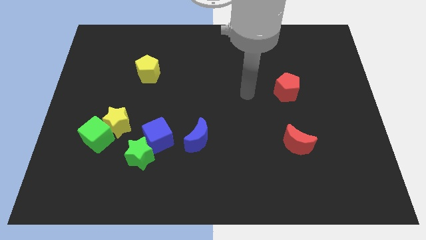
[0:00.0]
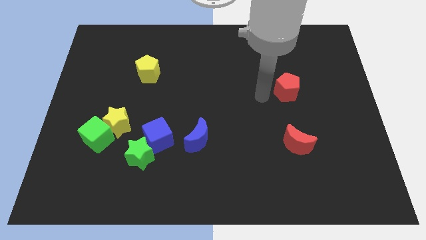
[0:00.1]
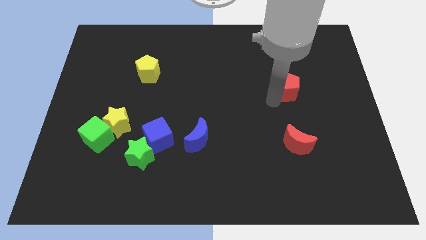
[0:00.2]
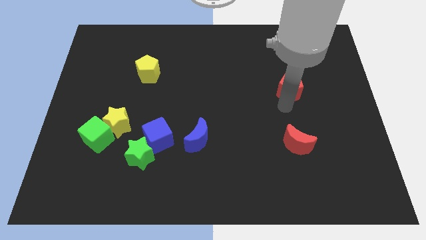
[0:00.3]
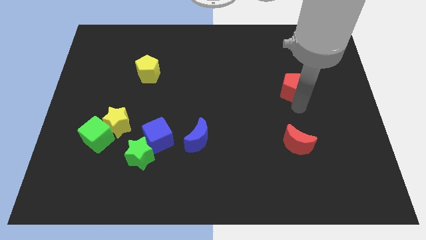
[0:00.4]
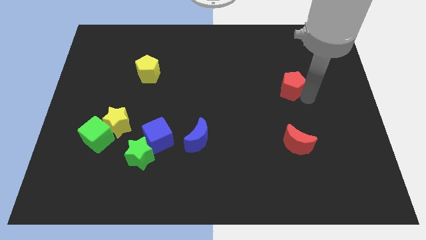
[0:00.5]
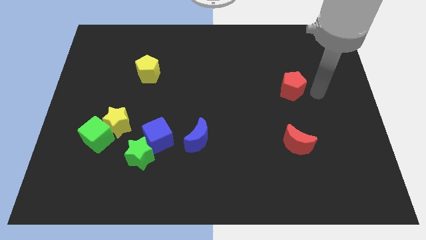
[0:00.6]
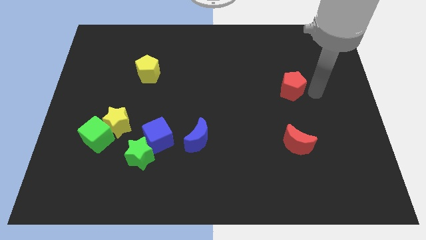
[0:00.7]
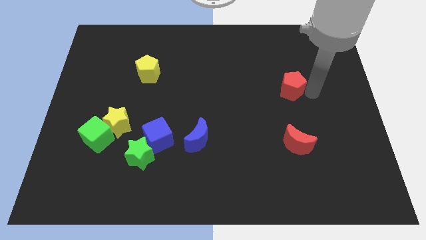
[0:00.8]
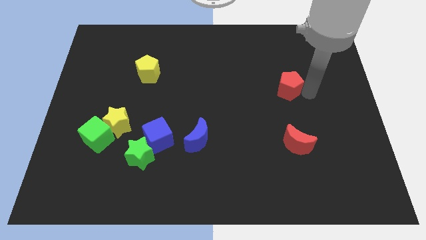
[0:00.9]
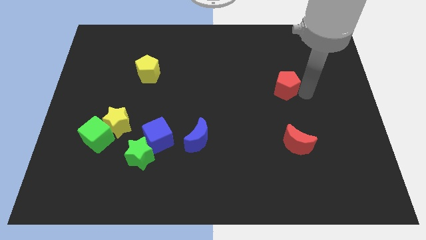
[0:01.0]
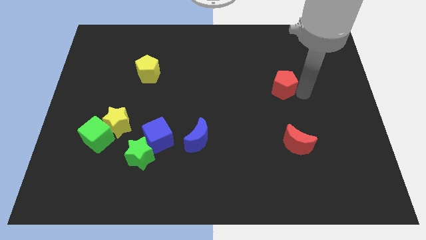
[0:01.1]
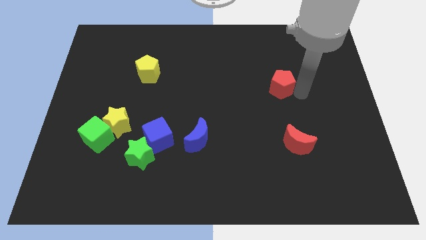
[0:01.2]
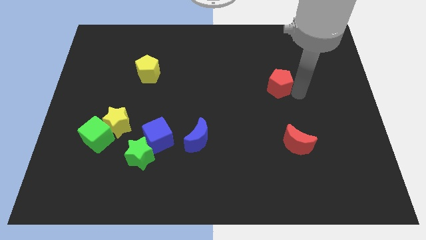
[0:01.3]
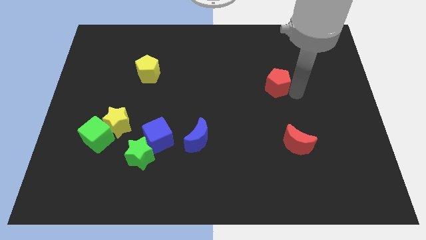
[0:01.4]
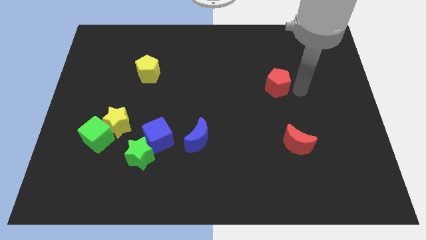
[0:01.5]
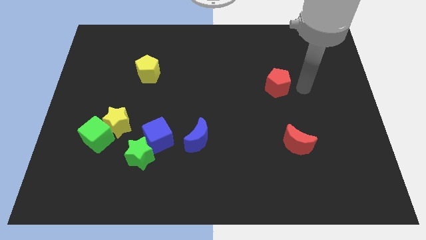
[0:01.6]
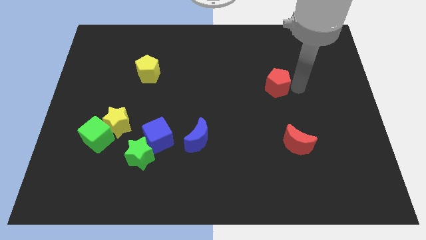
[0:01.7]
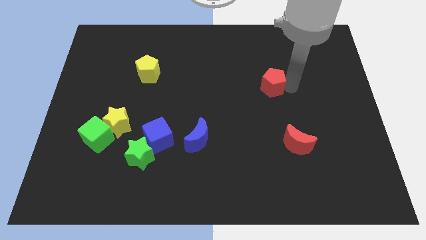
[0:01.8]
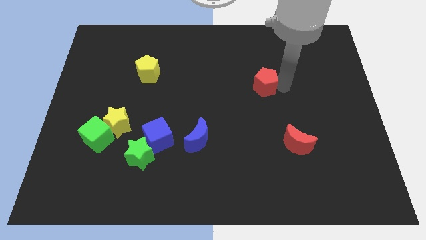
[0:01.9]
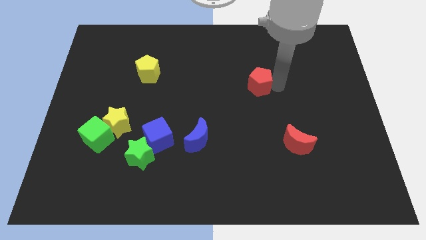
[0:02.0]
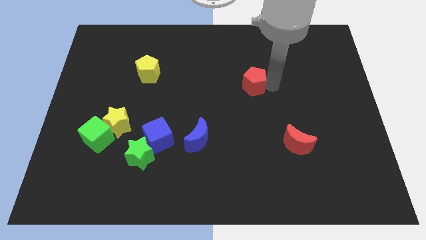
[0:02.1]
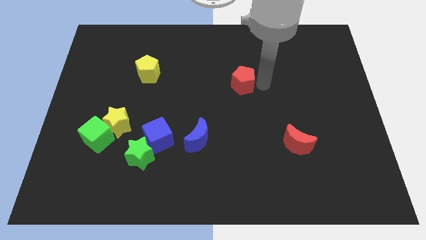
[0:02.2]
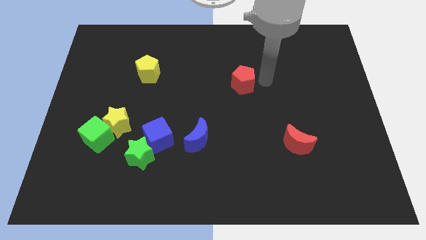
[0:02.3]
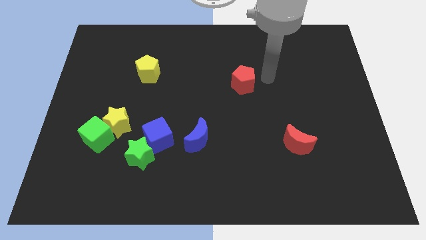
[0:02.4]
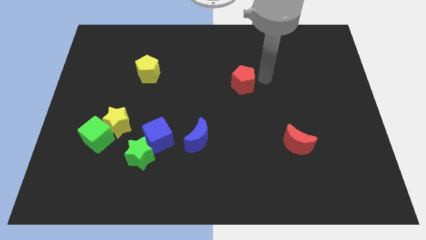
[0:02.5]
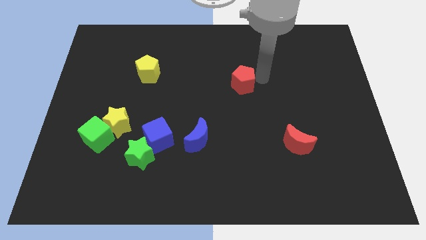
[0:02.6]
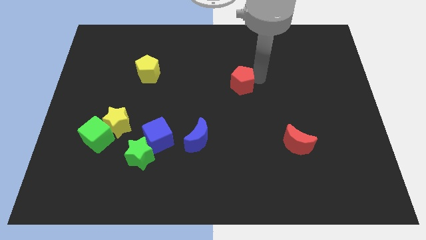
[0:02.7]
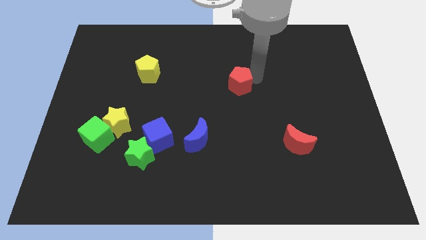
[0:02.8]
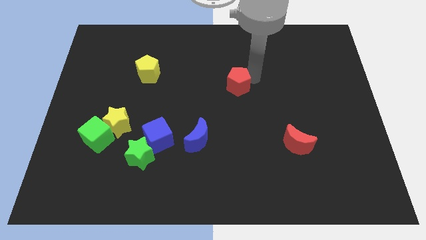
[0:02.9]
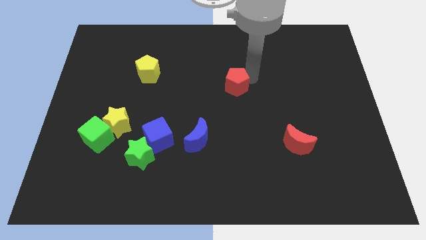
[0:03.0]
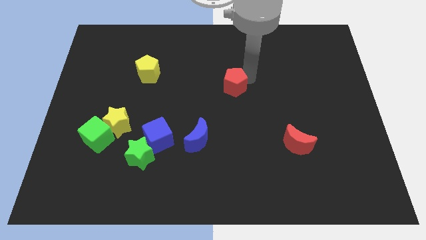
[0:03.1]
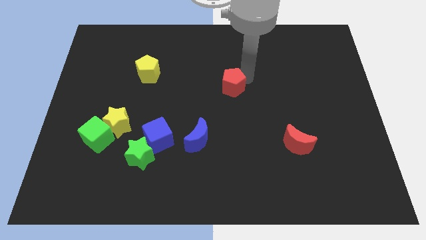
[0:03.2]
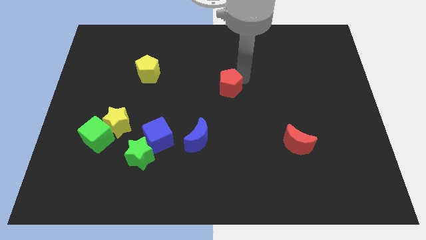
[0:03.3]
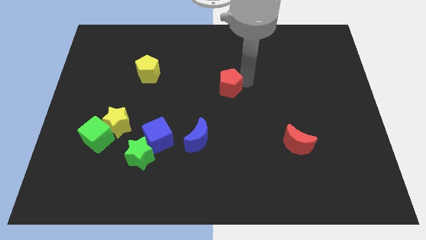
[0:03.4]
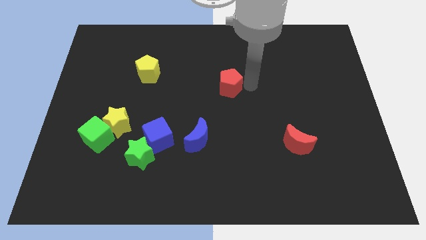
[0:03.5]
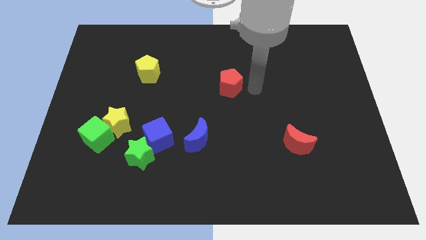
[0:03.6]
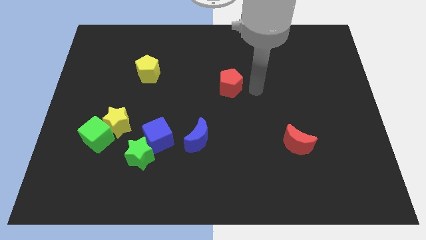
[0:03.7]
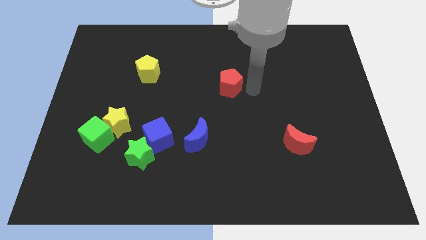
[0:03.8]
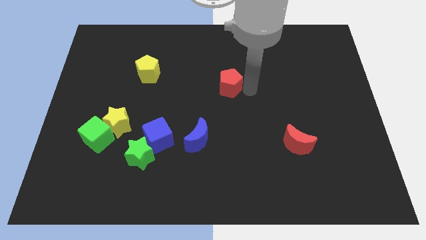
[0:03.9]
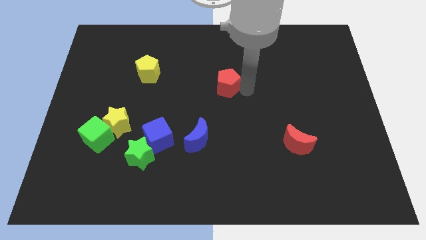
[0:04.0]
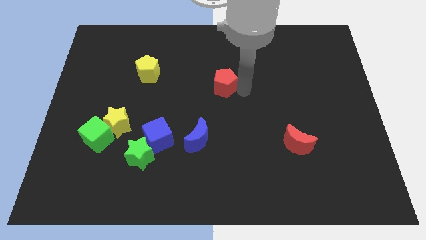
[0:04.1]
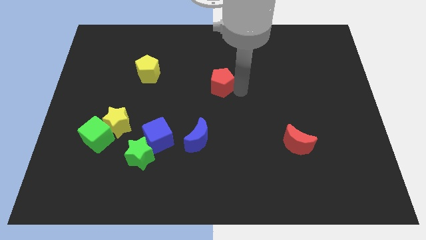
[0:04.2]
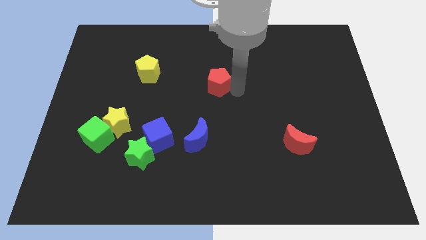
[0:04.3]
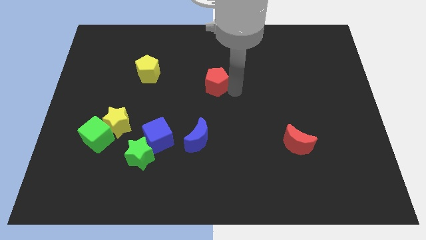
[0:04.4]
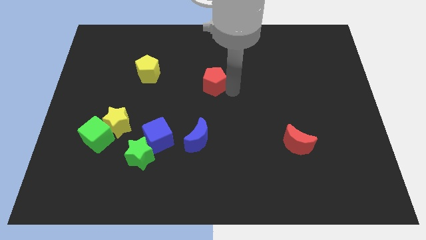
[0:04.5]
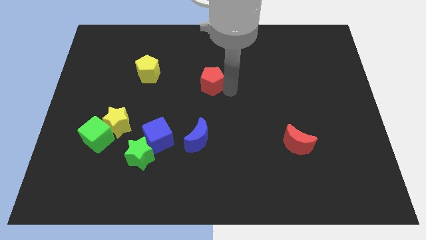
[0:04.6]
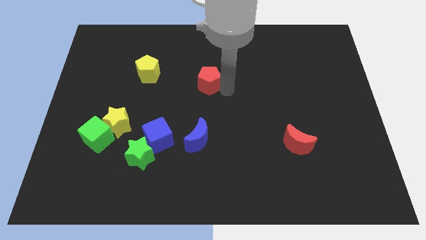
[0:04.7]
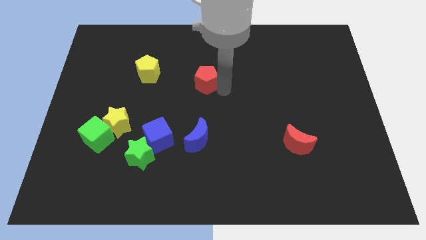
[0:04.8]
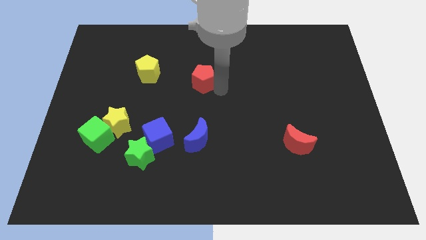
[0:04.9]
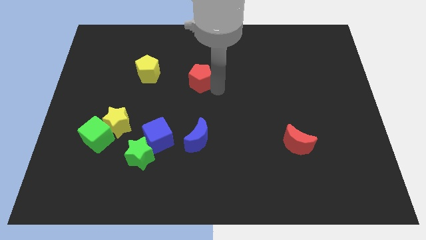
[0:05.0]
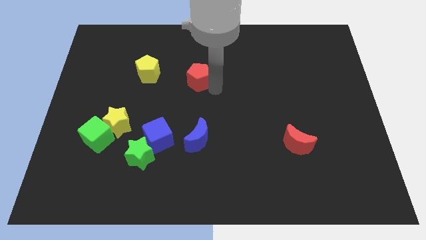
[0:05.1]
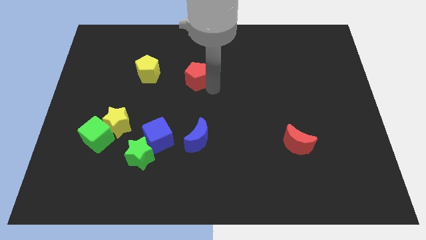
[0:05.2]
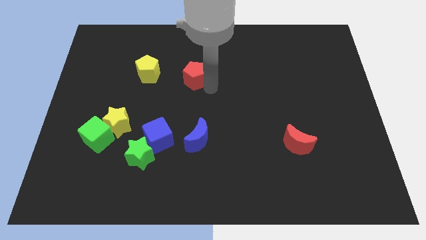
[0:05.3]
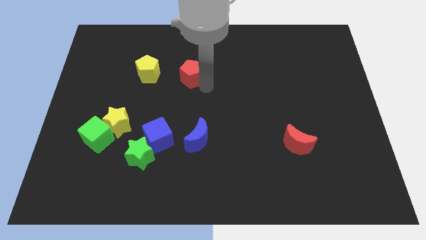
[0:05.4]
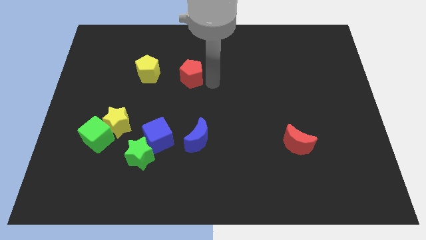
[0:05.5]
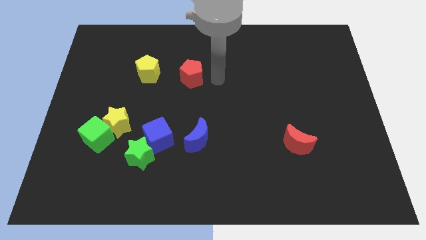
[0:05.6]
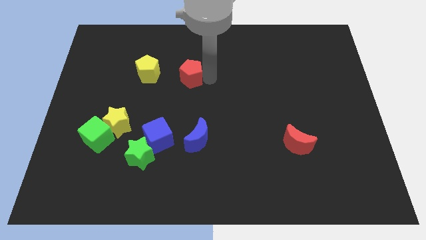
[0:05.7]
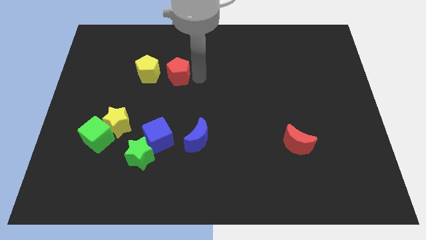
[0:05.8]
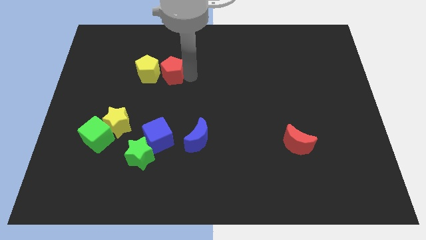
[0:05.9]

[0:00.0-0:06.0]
put the red pentagon close to the yellow pentagon

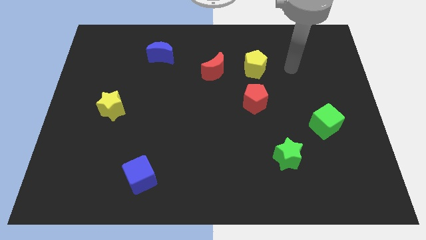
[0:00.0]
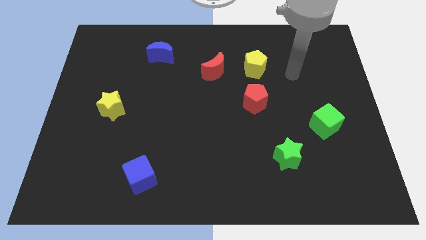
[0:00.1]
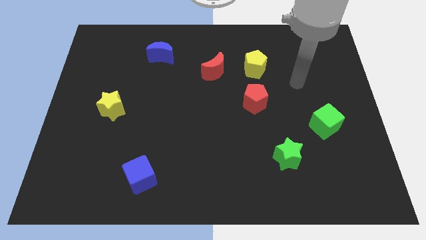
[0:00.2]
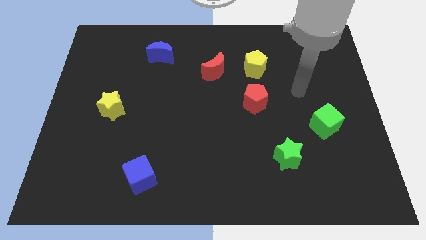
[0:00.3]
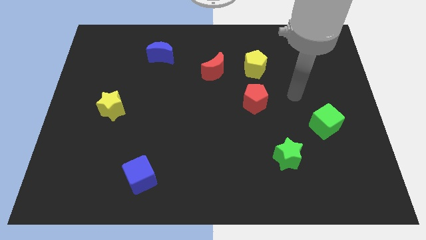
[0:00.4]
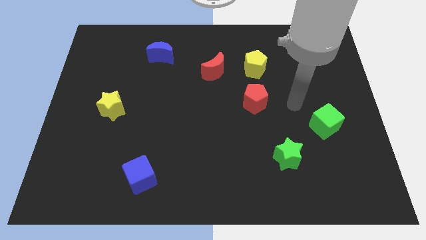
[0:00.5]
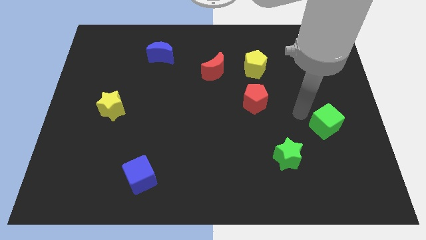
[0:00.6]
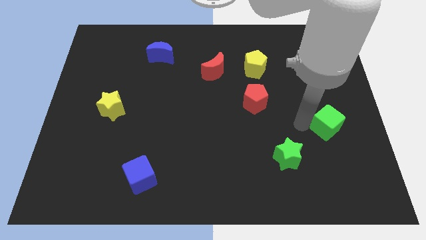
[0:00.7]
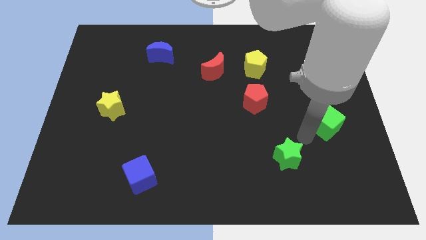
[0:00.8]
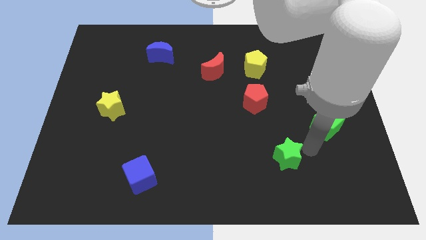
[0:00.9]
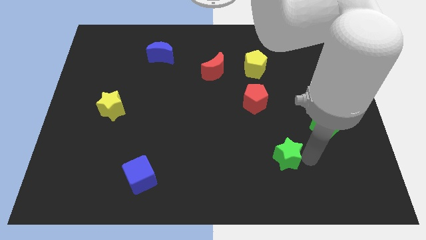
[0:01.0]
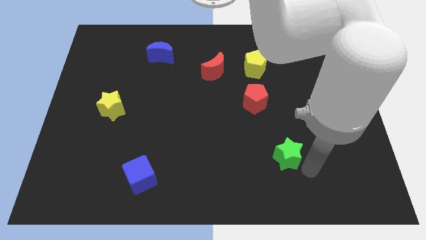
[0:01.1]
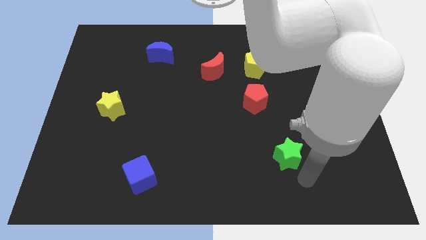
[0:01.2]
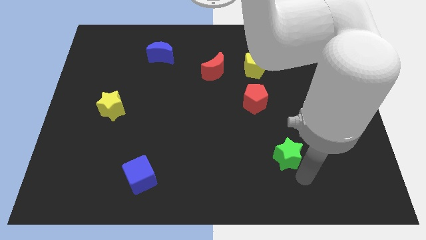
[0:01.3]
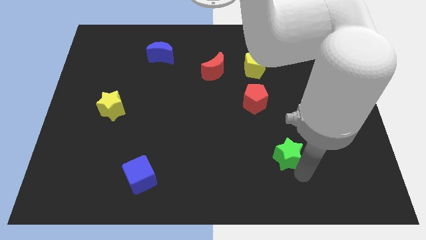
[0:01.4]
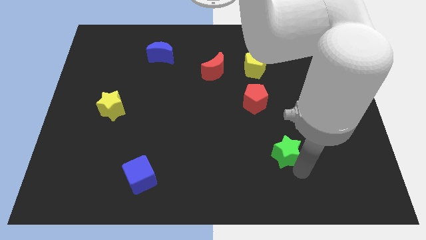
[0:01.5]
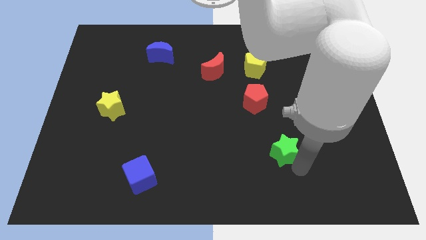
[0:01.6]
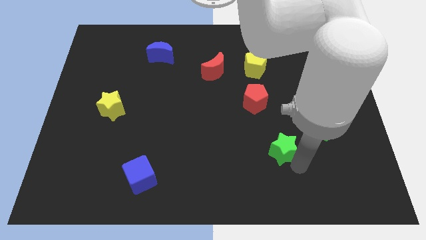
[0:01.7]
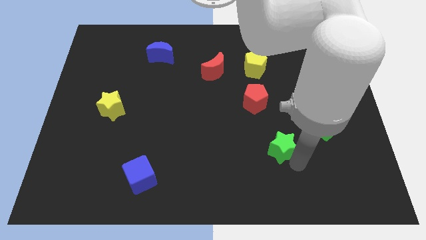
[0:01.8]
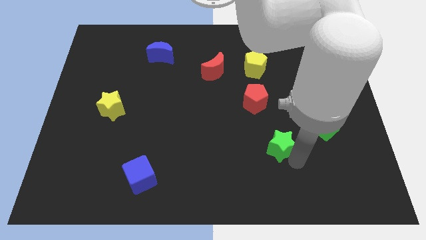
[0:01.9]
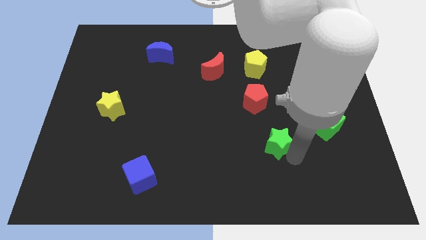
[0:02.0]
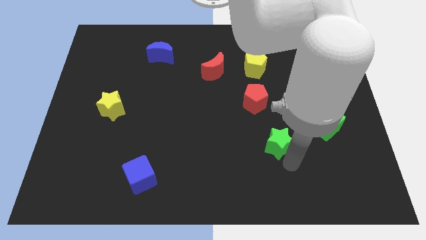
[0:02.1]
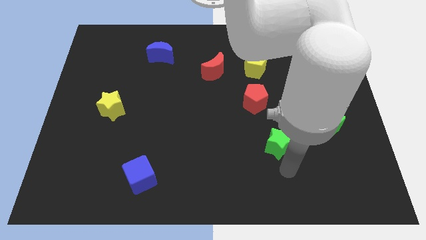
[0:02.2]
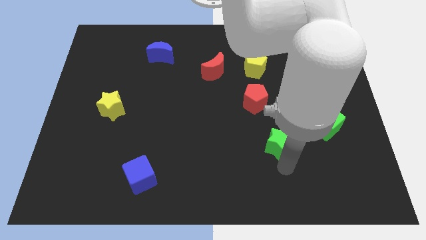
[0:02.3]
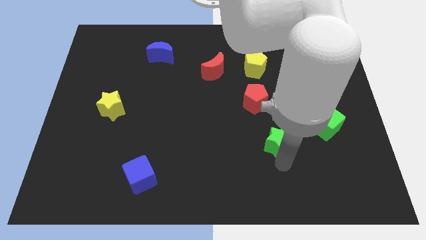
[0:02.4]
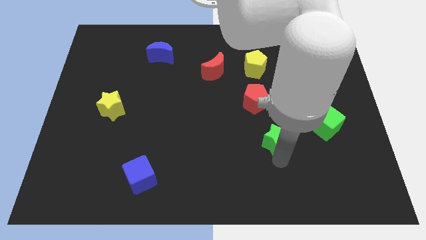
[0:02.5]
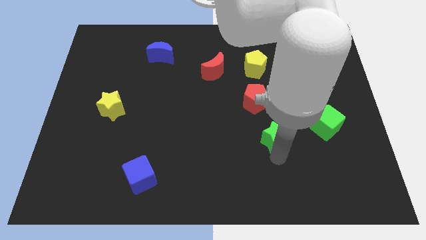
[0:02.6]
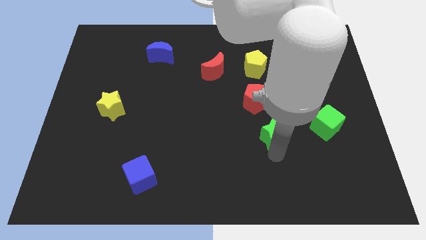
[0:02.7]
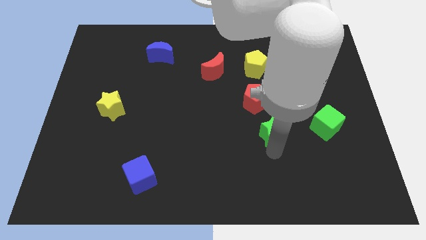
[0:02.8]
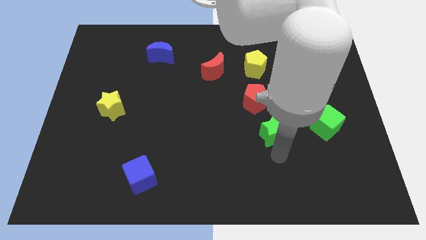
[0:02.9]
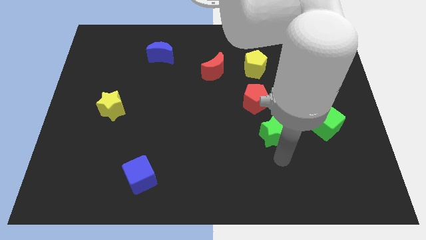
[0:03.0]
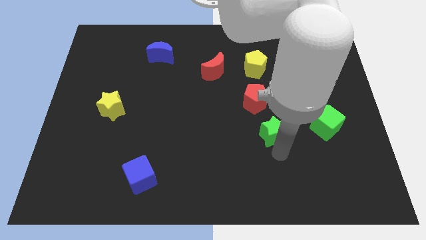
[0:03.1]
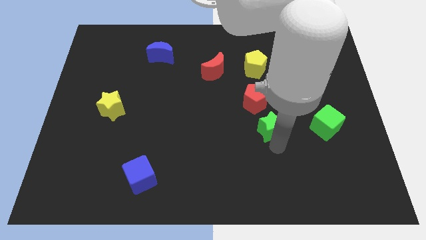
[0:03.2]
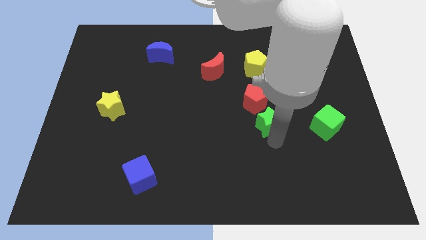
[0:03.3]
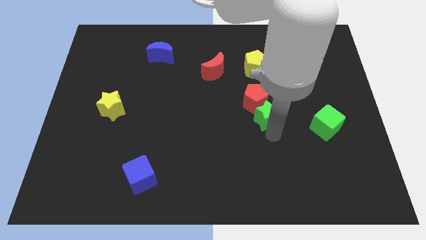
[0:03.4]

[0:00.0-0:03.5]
slide the green star close to the red pentagon
